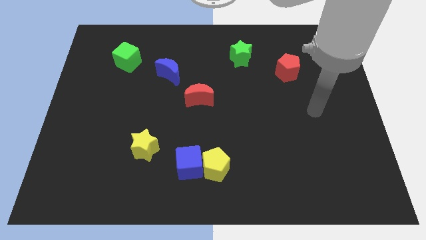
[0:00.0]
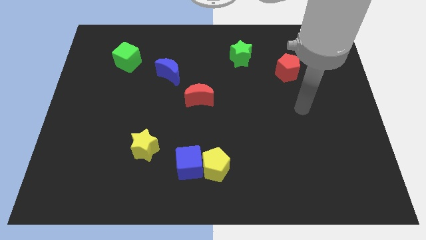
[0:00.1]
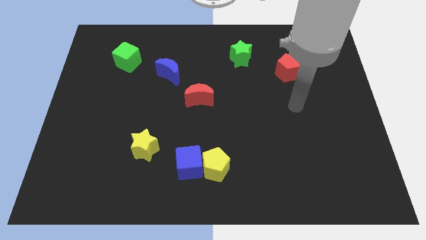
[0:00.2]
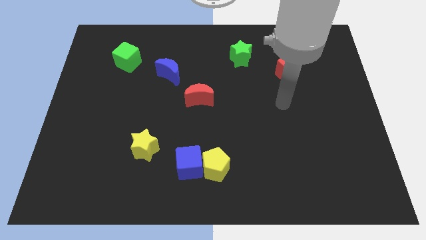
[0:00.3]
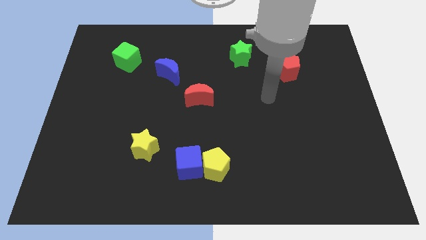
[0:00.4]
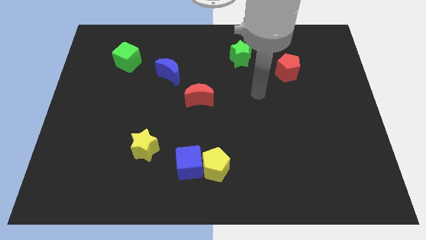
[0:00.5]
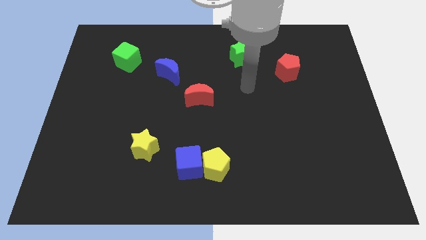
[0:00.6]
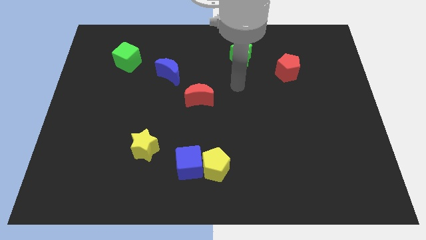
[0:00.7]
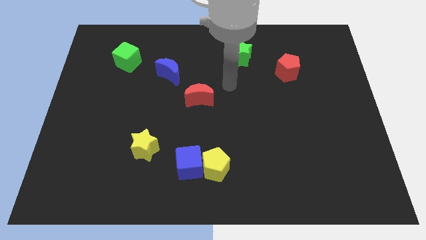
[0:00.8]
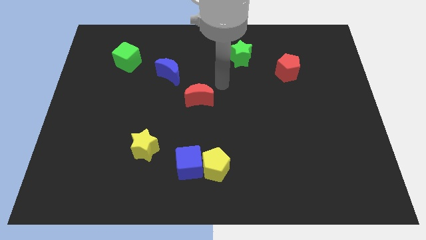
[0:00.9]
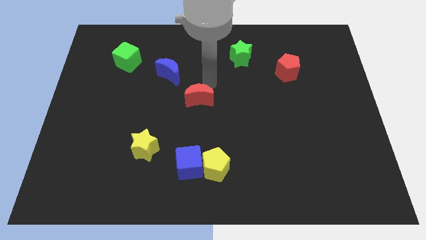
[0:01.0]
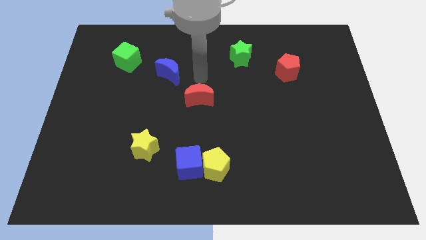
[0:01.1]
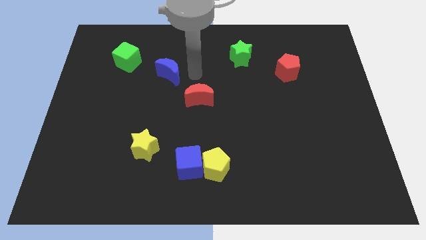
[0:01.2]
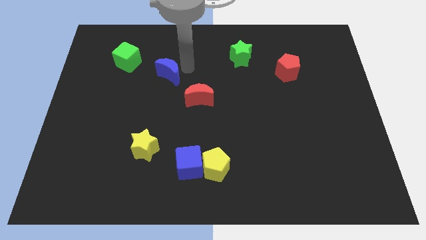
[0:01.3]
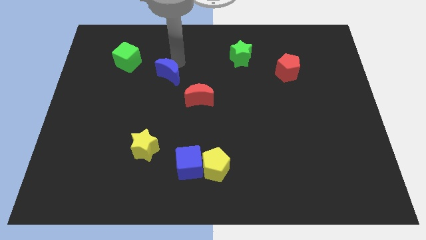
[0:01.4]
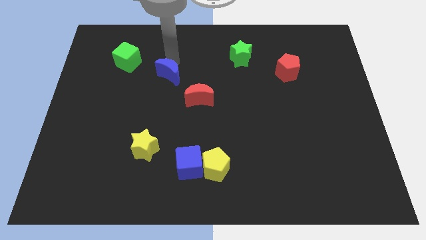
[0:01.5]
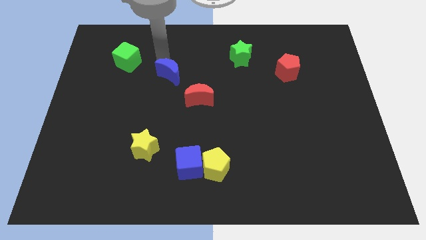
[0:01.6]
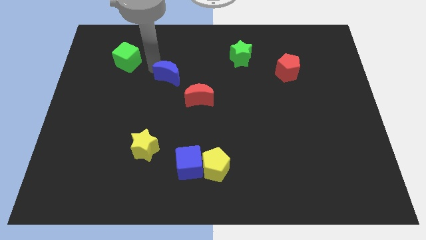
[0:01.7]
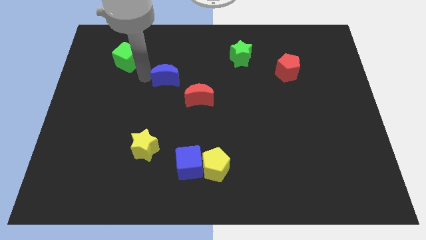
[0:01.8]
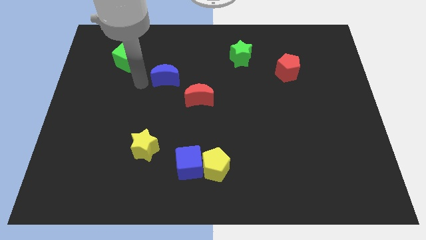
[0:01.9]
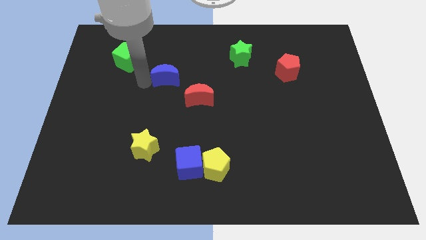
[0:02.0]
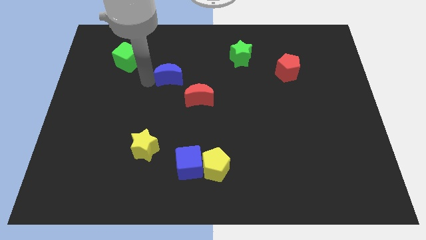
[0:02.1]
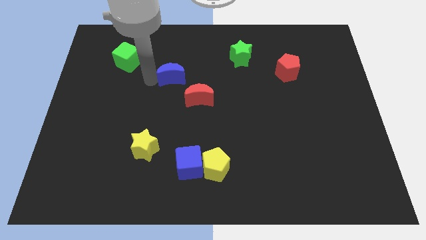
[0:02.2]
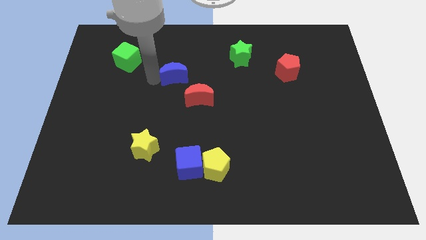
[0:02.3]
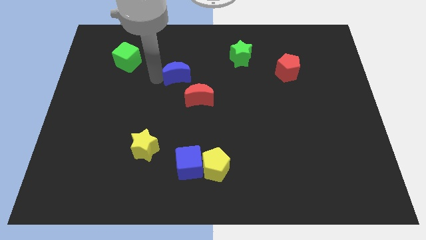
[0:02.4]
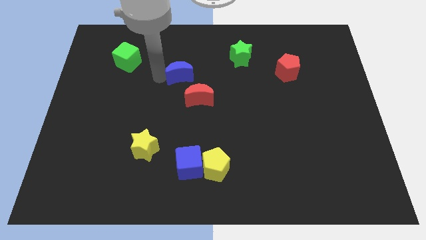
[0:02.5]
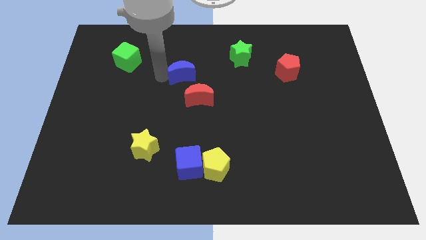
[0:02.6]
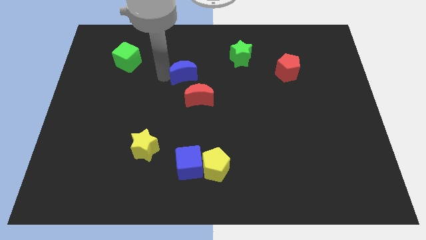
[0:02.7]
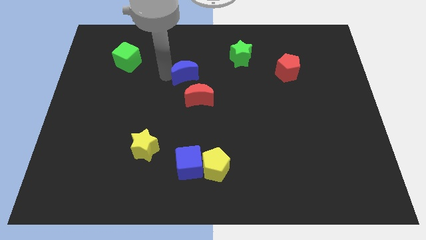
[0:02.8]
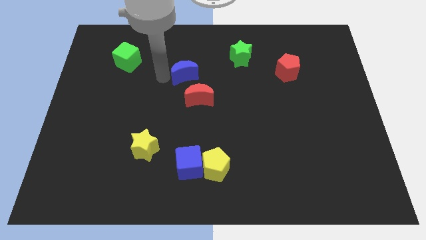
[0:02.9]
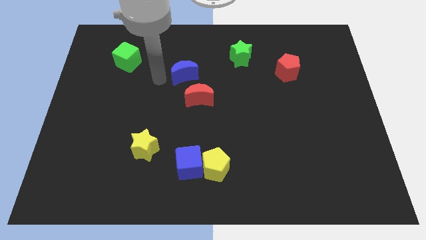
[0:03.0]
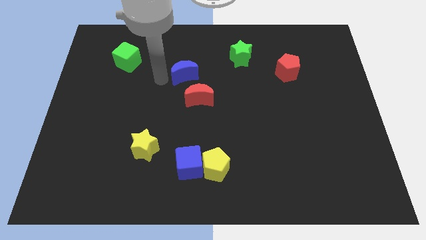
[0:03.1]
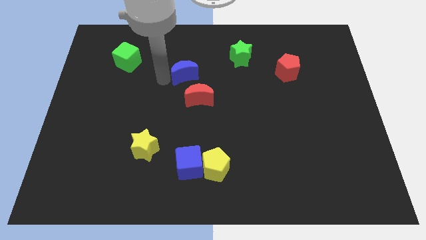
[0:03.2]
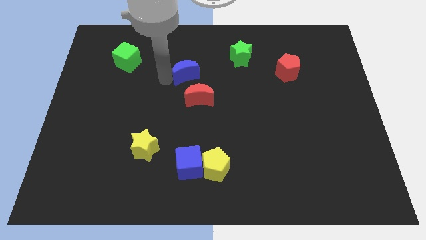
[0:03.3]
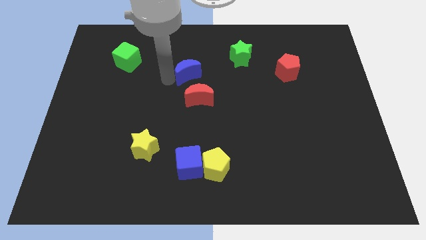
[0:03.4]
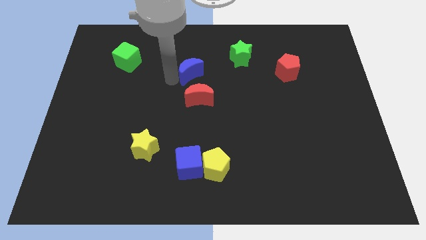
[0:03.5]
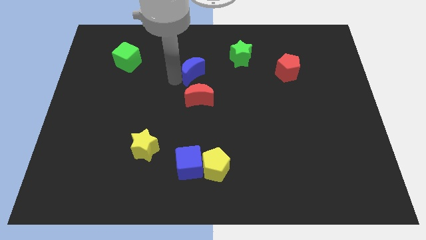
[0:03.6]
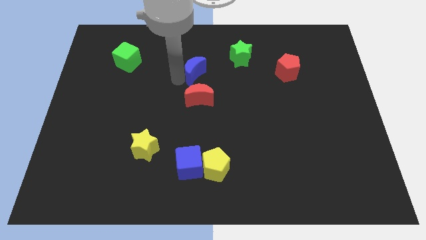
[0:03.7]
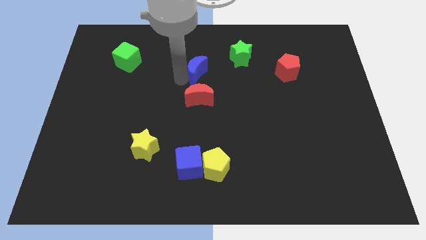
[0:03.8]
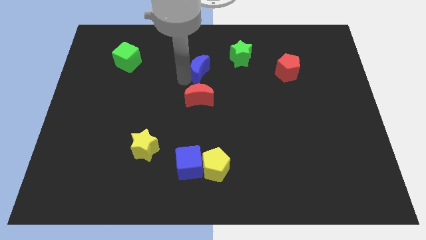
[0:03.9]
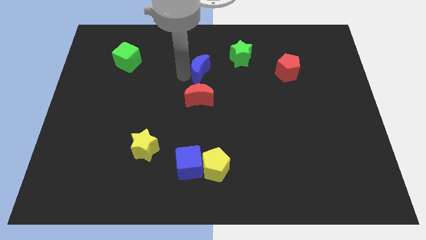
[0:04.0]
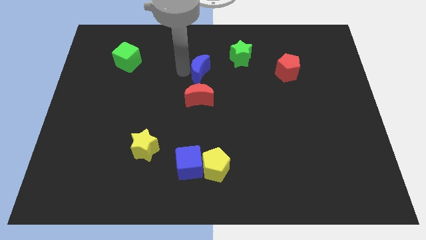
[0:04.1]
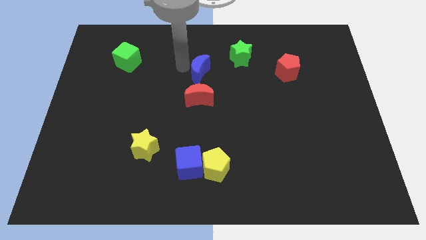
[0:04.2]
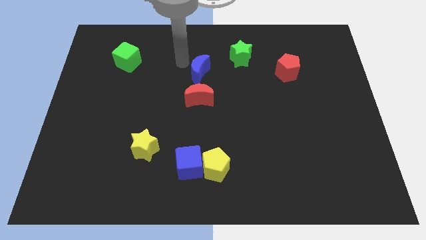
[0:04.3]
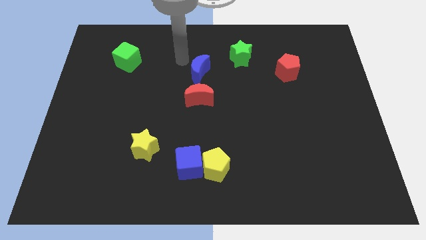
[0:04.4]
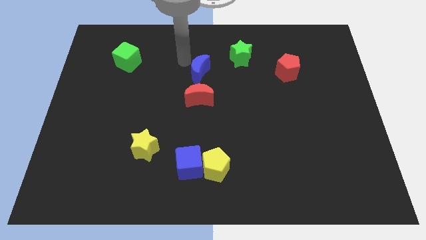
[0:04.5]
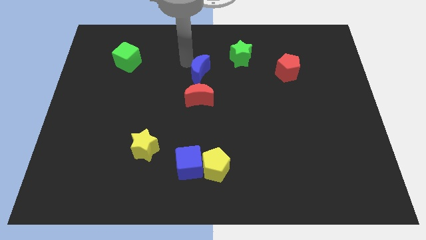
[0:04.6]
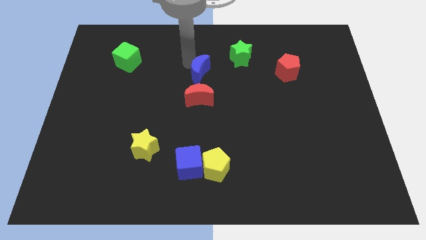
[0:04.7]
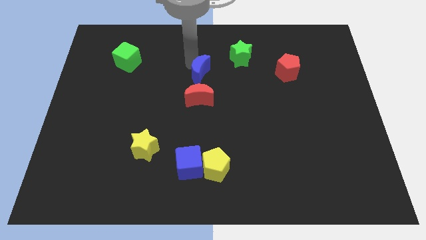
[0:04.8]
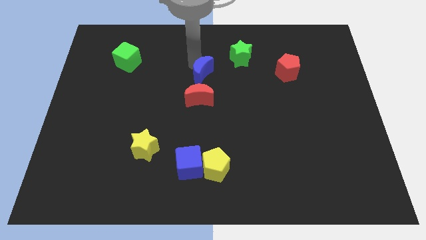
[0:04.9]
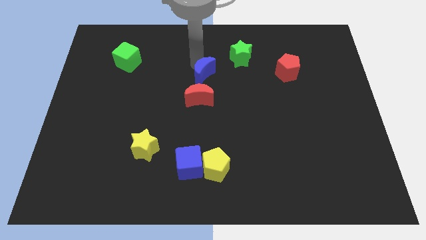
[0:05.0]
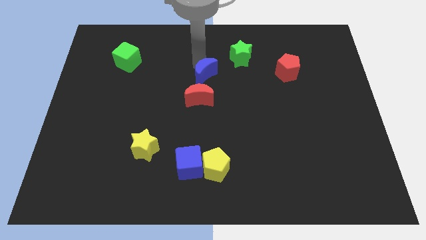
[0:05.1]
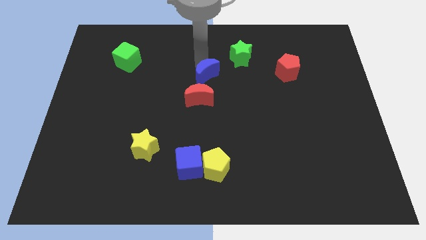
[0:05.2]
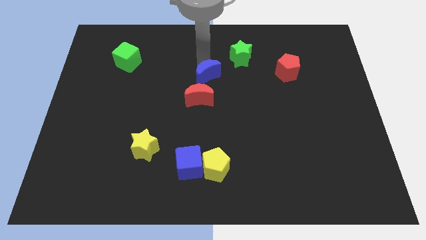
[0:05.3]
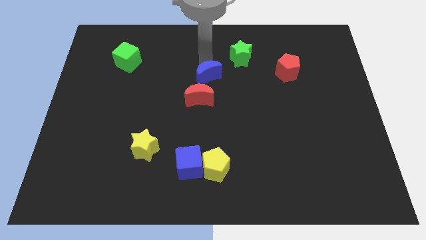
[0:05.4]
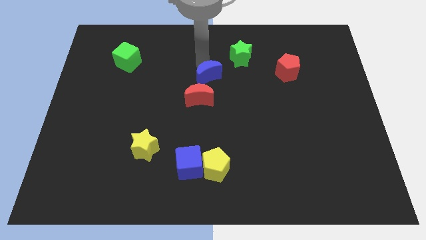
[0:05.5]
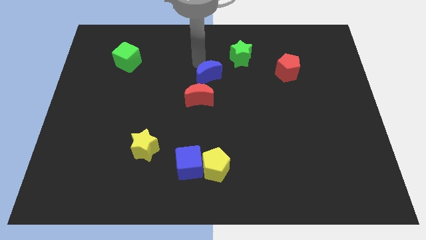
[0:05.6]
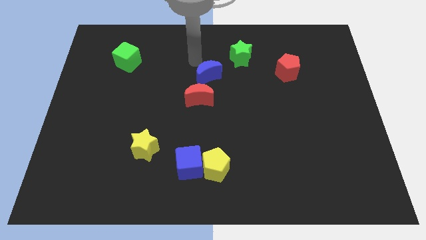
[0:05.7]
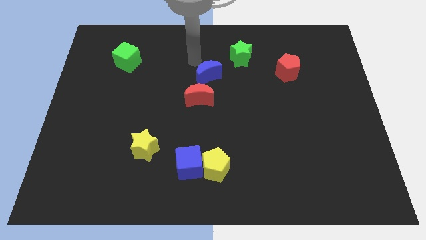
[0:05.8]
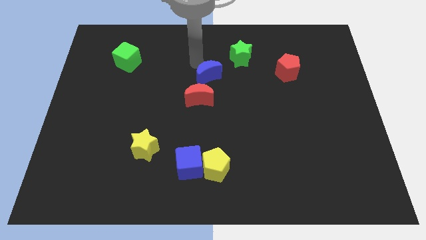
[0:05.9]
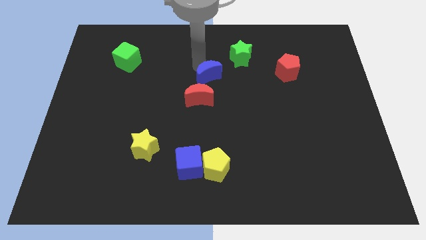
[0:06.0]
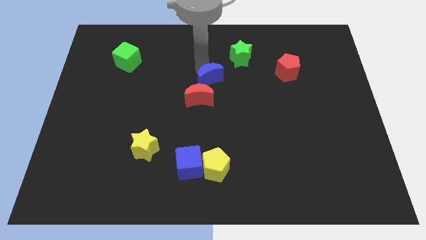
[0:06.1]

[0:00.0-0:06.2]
slide the blue moon down and to the right diagonally a little bit

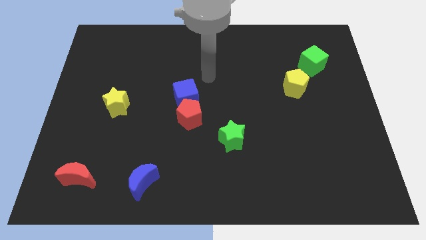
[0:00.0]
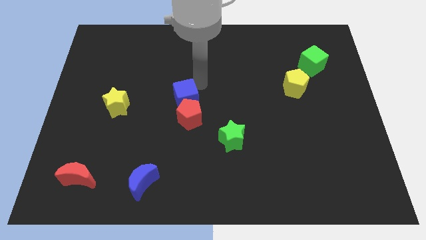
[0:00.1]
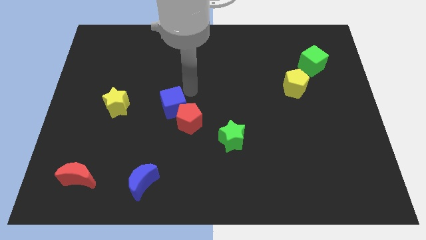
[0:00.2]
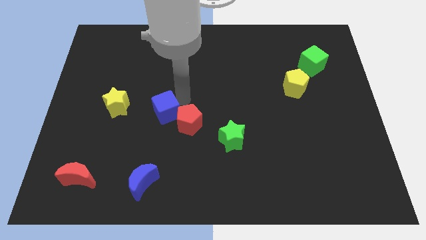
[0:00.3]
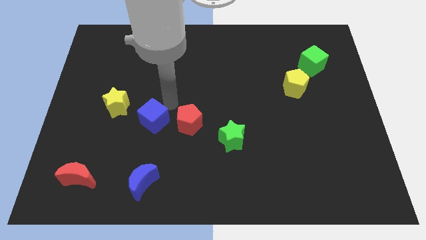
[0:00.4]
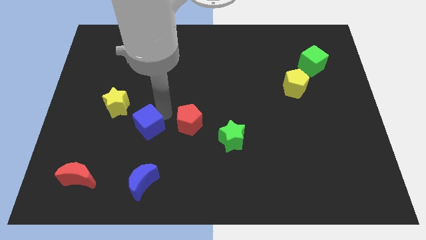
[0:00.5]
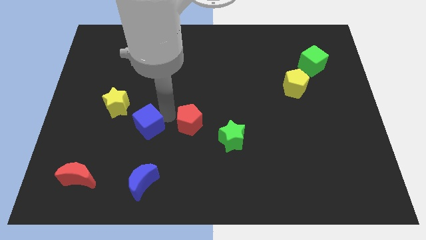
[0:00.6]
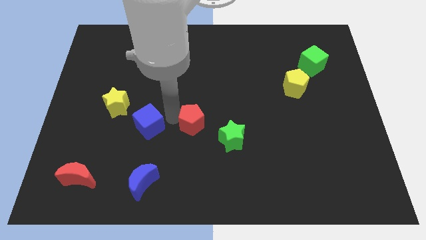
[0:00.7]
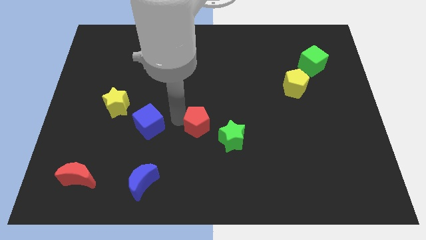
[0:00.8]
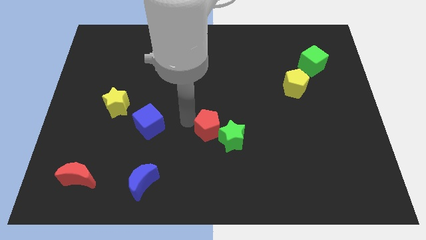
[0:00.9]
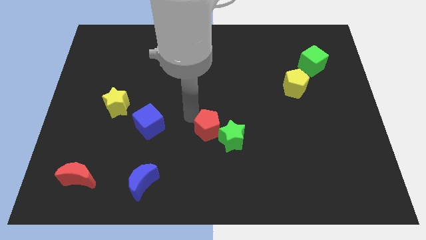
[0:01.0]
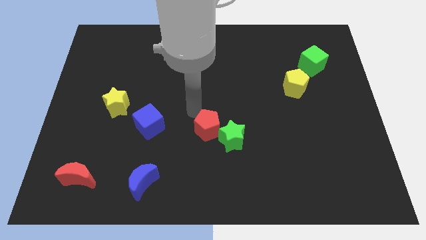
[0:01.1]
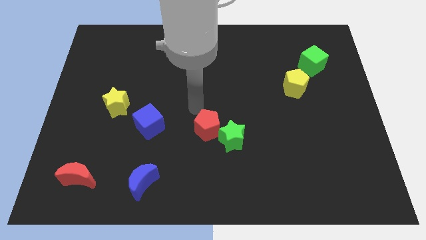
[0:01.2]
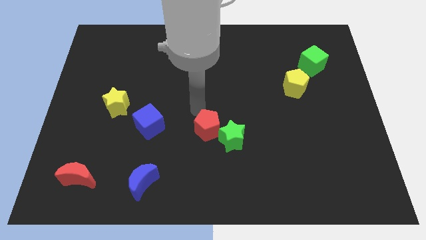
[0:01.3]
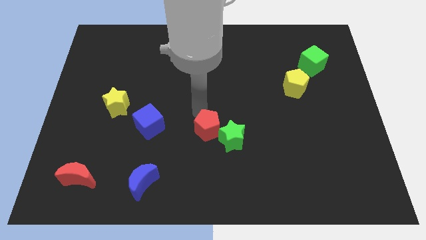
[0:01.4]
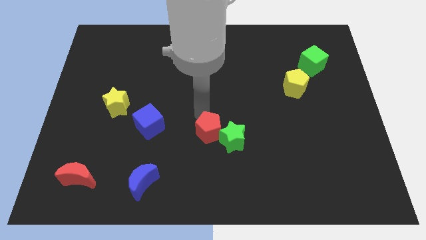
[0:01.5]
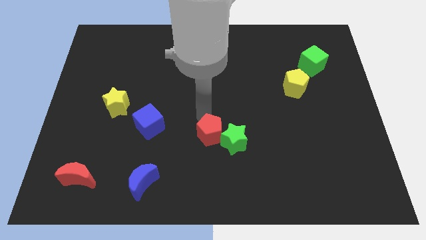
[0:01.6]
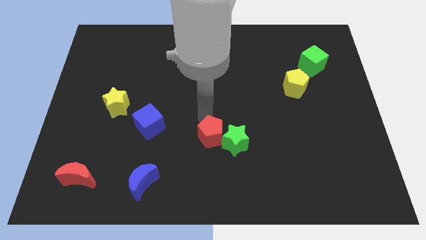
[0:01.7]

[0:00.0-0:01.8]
slightly slide the red pentagon down and right
